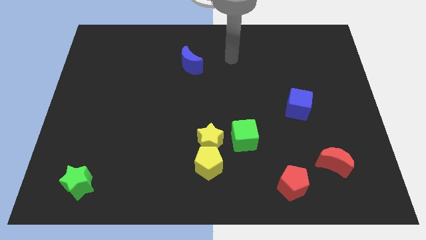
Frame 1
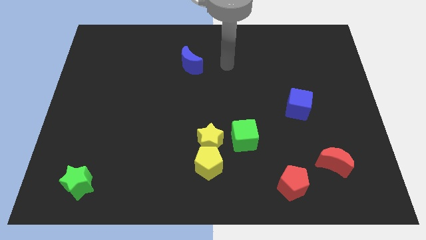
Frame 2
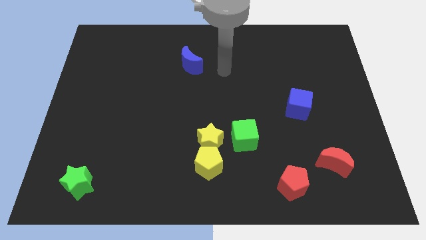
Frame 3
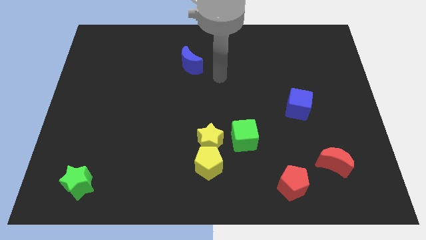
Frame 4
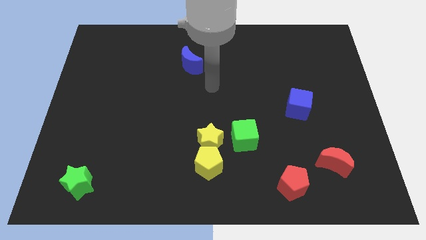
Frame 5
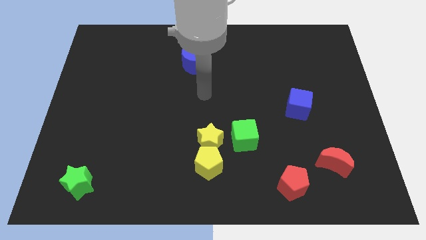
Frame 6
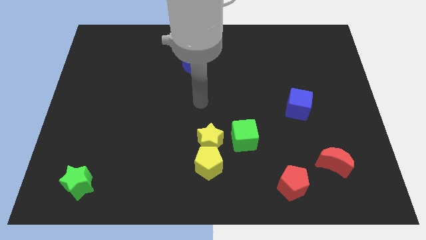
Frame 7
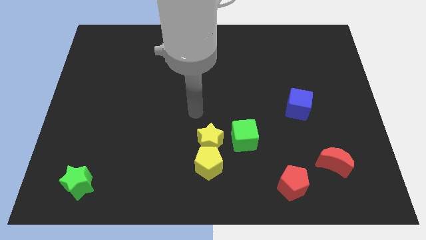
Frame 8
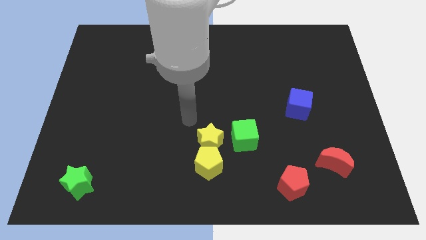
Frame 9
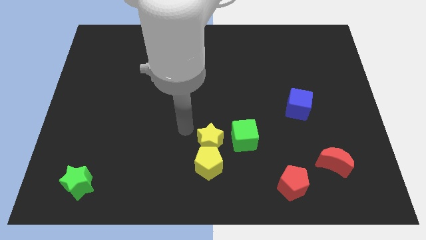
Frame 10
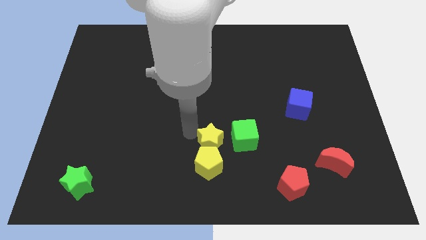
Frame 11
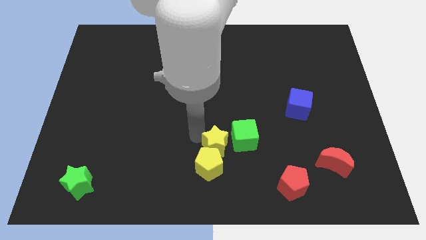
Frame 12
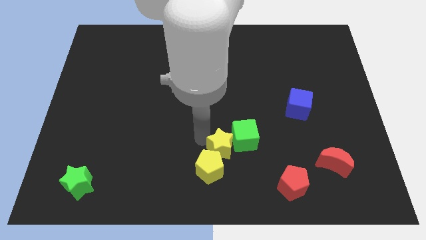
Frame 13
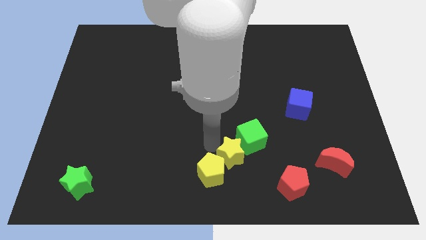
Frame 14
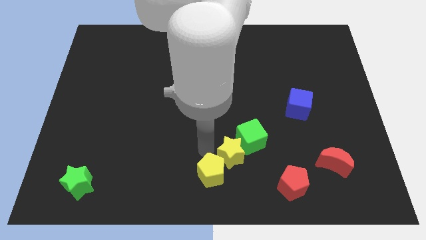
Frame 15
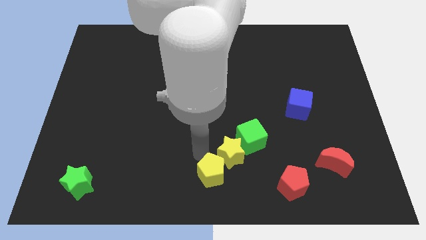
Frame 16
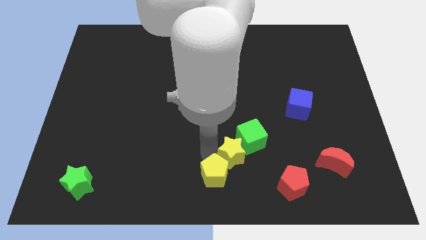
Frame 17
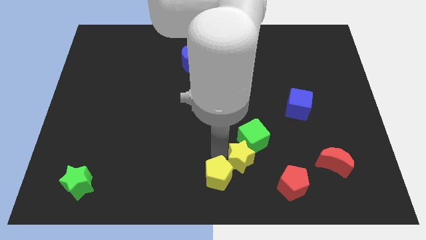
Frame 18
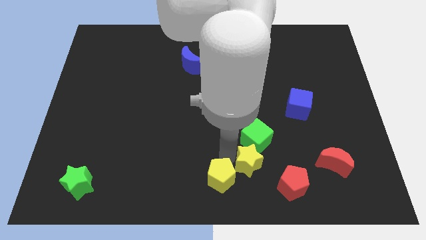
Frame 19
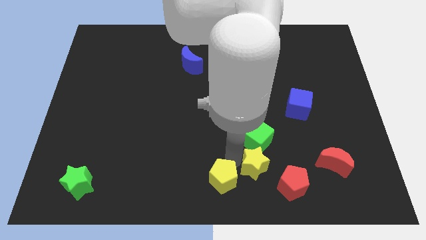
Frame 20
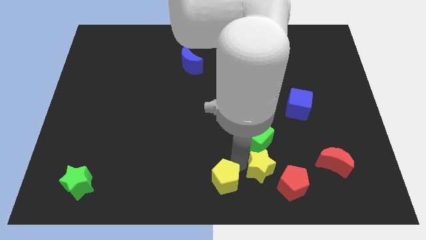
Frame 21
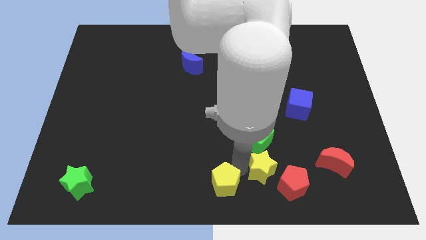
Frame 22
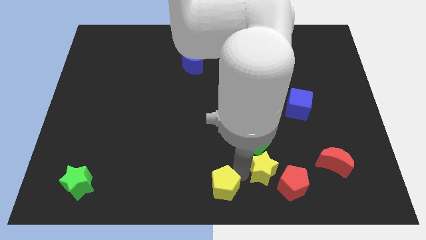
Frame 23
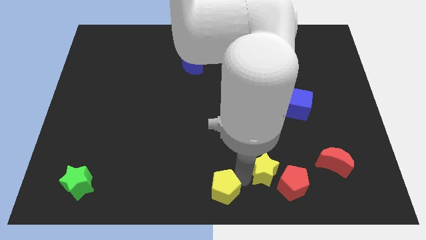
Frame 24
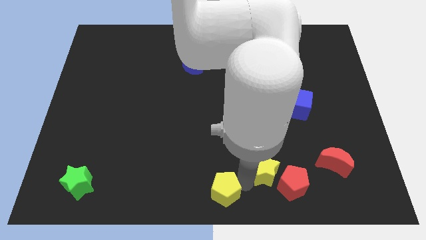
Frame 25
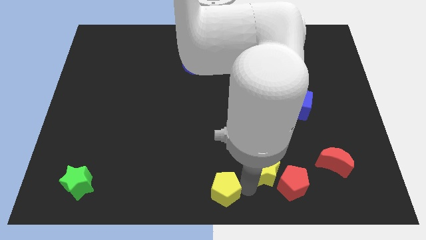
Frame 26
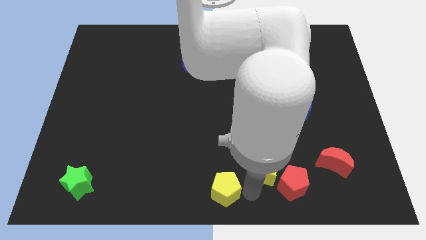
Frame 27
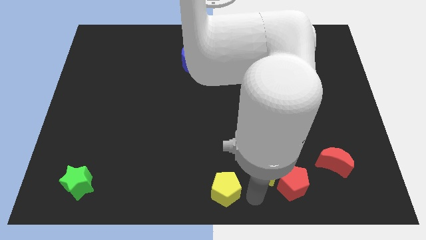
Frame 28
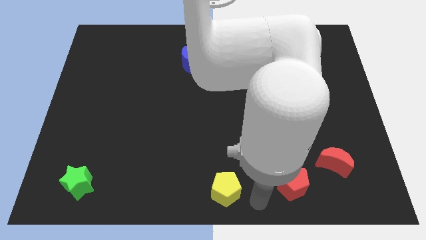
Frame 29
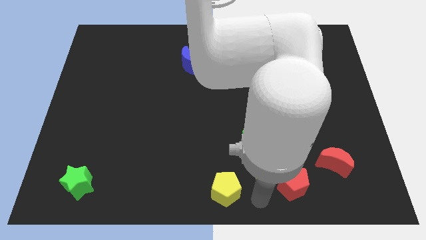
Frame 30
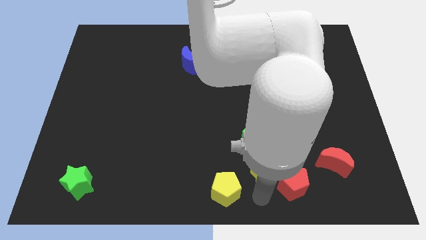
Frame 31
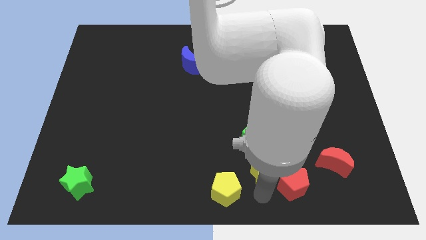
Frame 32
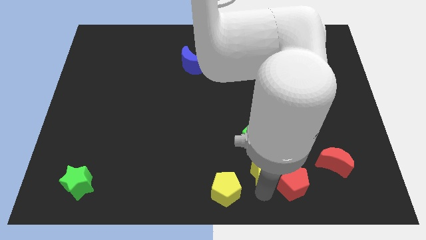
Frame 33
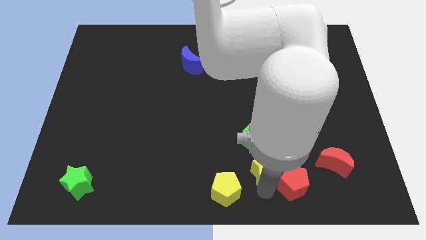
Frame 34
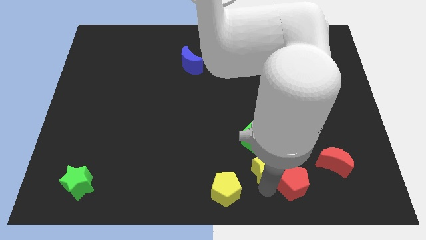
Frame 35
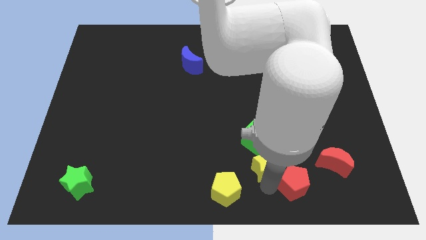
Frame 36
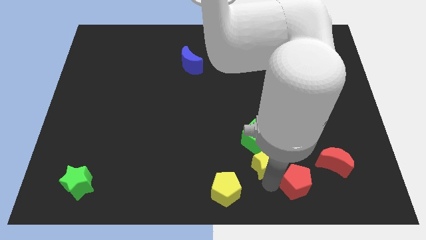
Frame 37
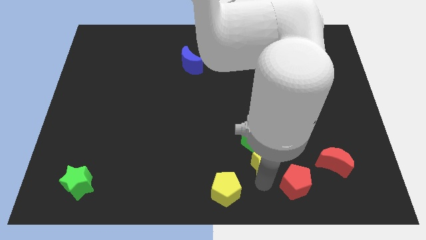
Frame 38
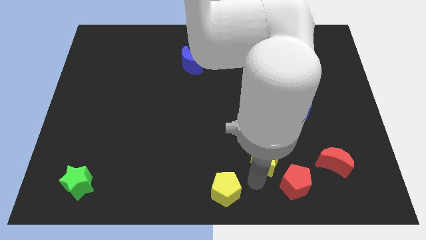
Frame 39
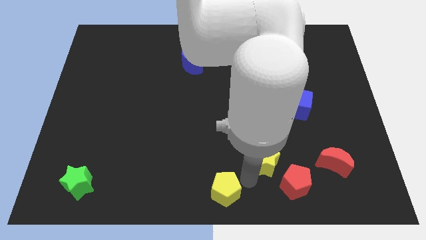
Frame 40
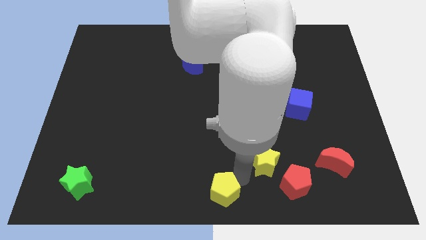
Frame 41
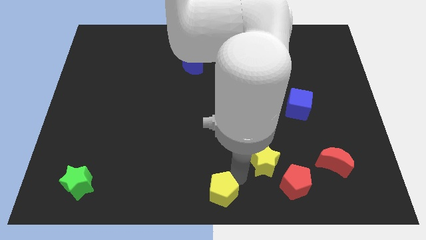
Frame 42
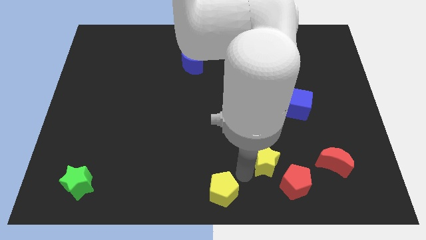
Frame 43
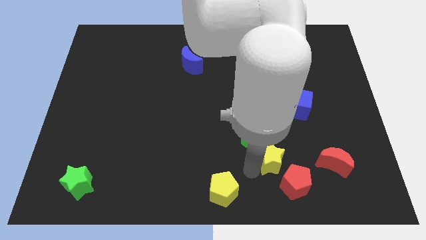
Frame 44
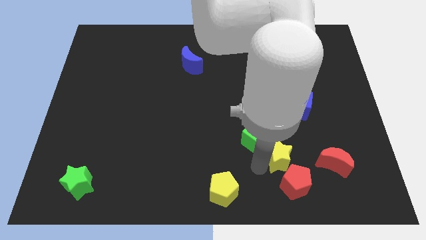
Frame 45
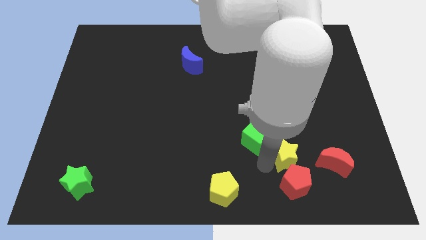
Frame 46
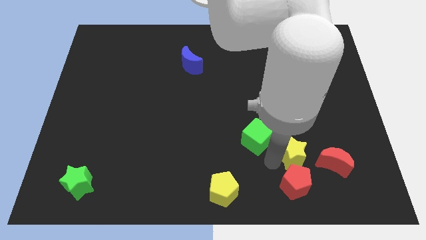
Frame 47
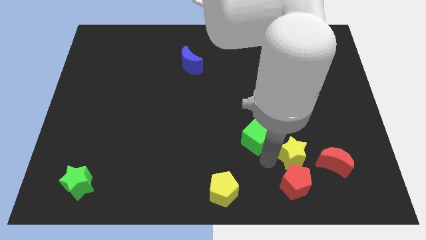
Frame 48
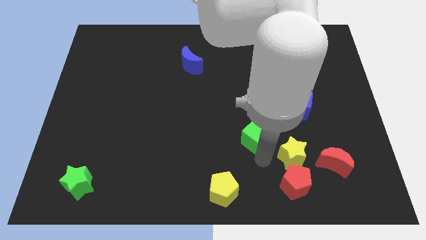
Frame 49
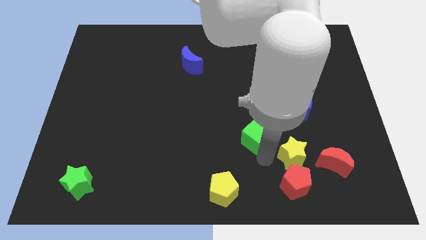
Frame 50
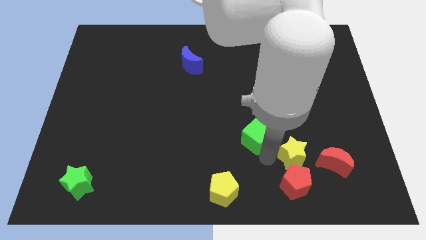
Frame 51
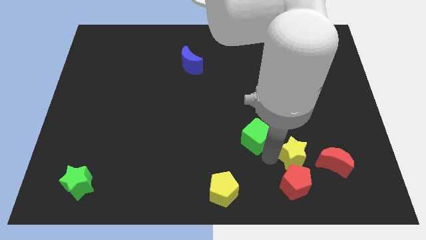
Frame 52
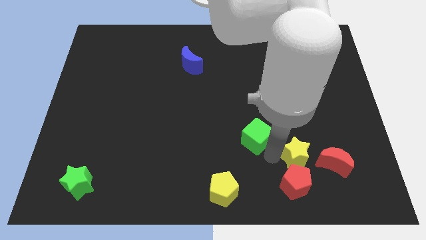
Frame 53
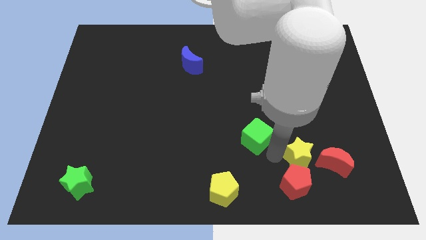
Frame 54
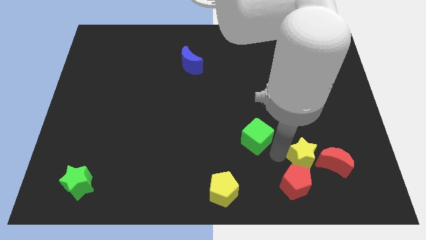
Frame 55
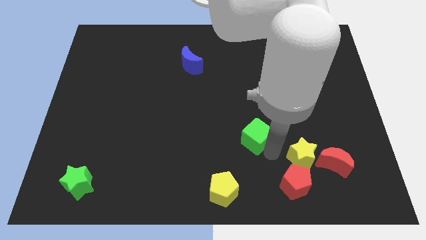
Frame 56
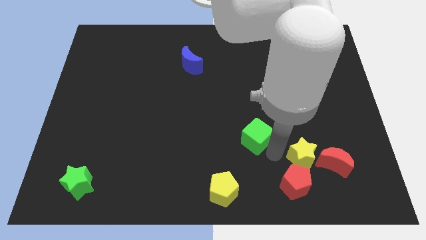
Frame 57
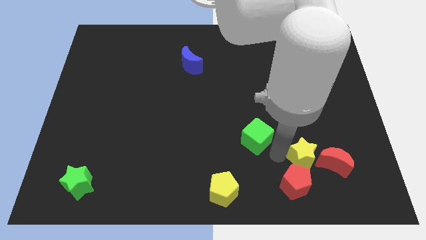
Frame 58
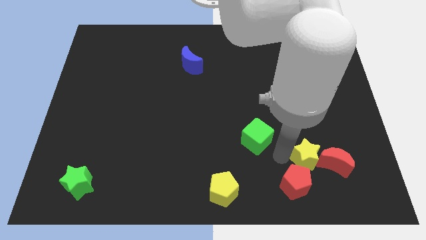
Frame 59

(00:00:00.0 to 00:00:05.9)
push the yellow star close to the red moon

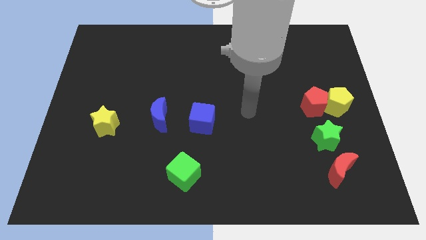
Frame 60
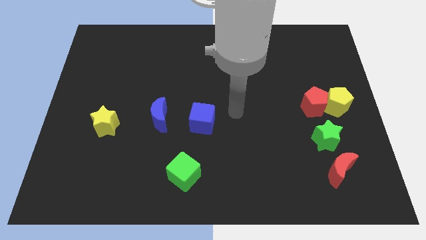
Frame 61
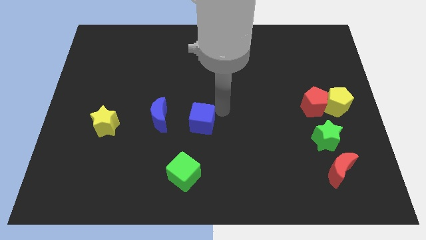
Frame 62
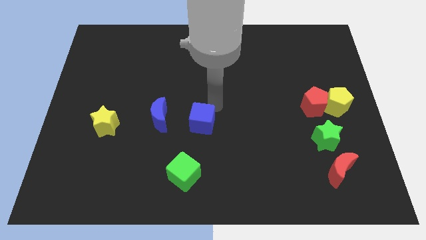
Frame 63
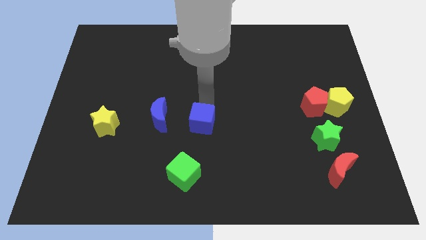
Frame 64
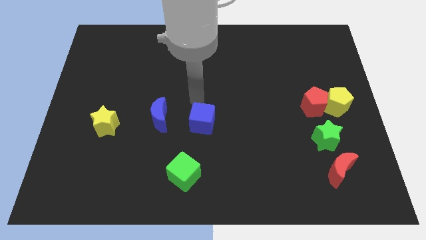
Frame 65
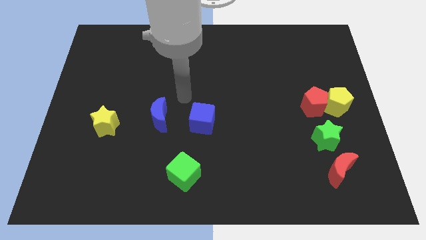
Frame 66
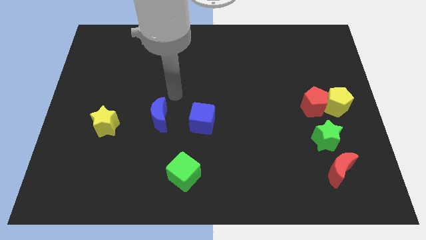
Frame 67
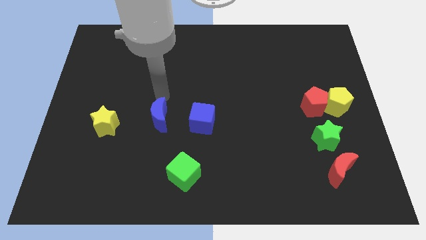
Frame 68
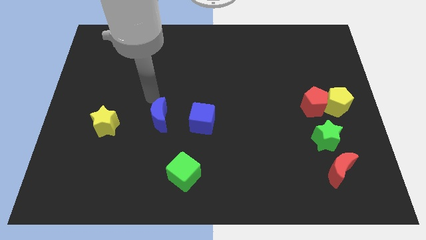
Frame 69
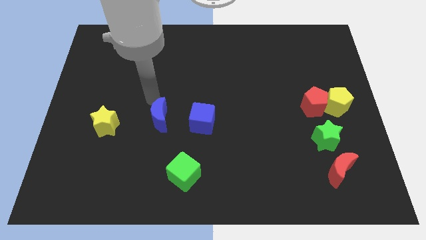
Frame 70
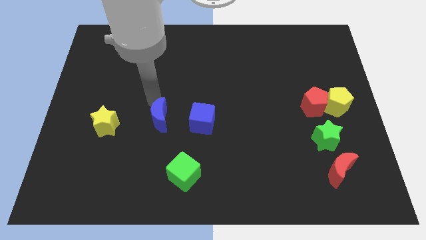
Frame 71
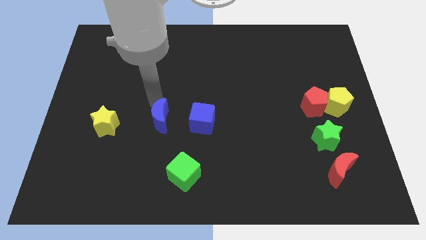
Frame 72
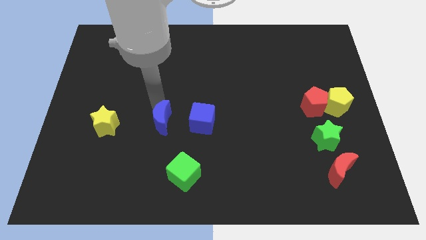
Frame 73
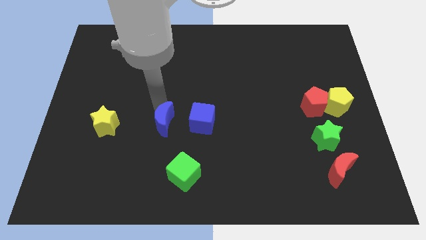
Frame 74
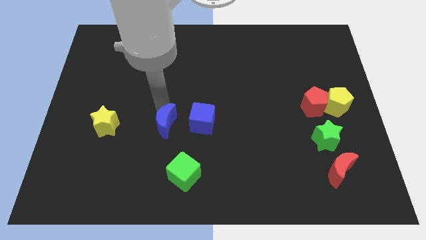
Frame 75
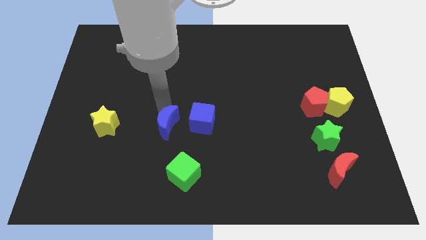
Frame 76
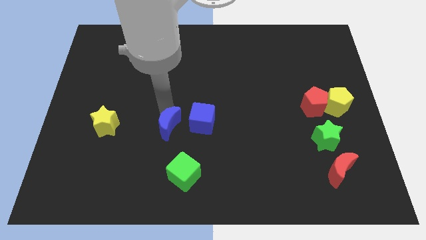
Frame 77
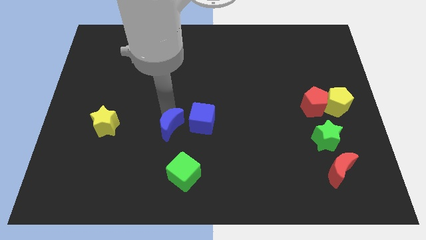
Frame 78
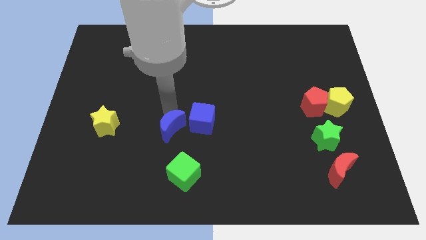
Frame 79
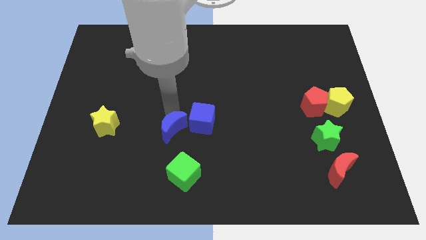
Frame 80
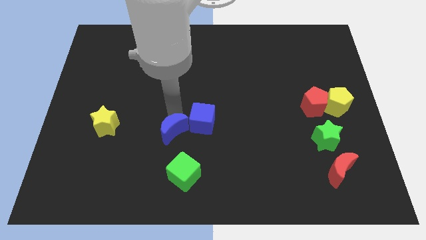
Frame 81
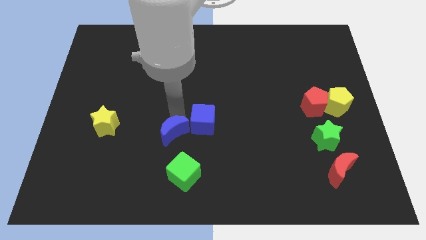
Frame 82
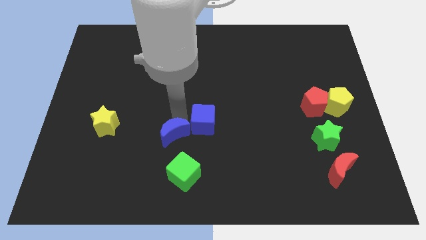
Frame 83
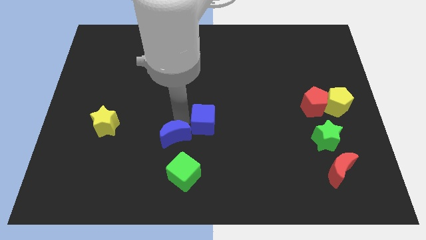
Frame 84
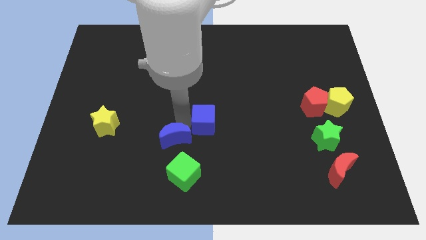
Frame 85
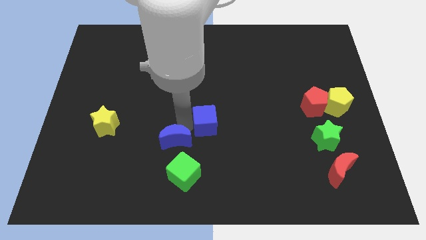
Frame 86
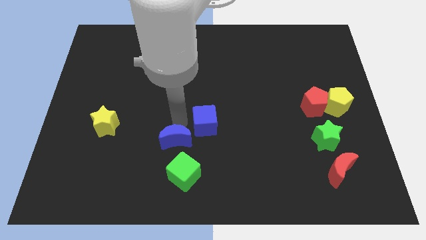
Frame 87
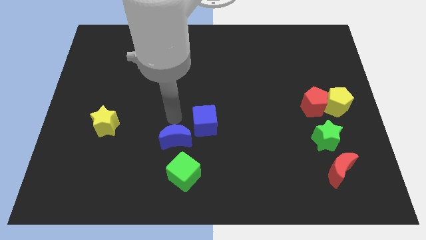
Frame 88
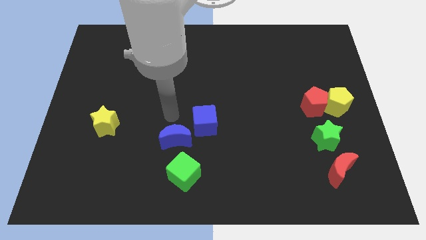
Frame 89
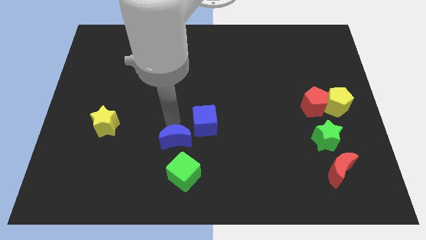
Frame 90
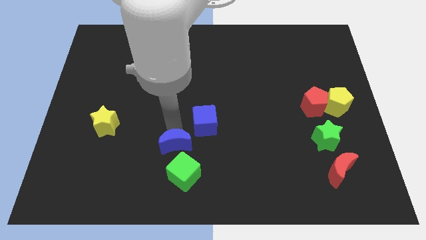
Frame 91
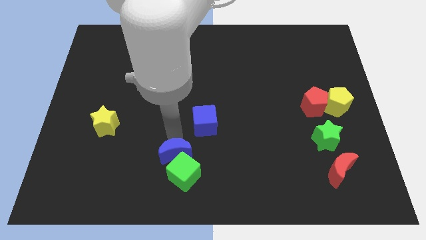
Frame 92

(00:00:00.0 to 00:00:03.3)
slide the blue moon to the green cube
